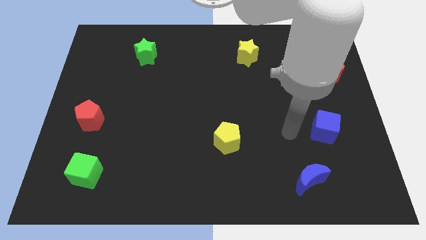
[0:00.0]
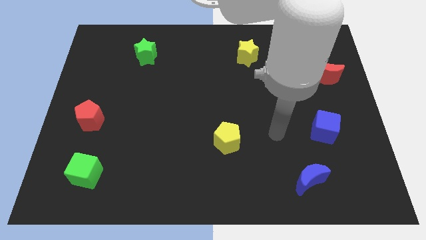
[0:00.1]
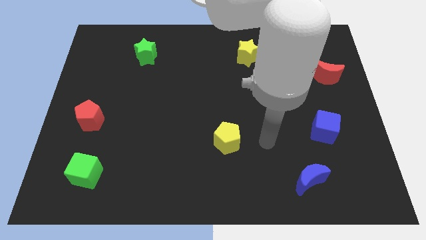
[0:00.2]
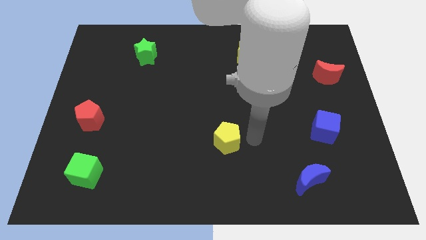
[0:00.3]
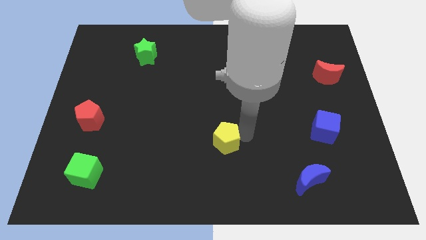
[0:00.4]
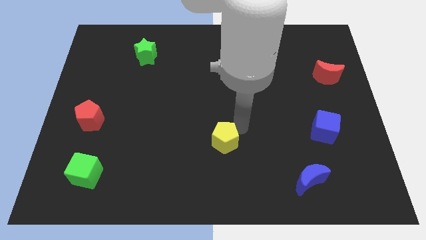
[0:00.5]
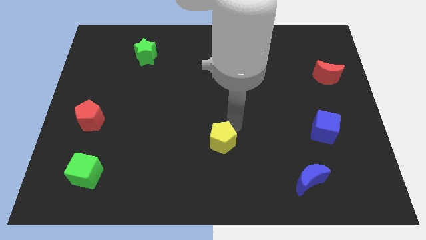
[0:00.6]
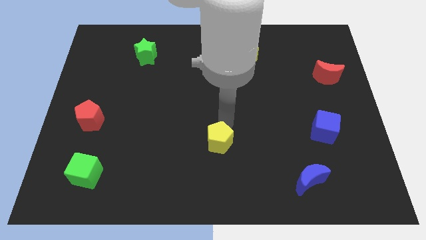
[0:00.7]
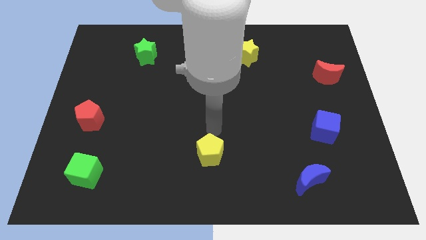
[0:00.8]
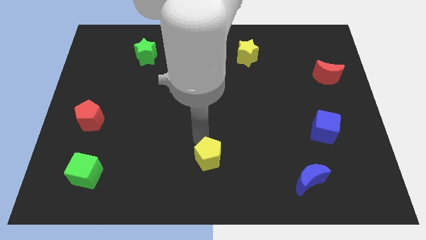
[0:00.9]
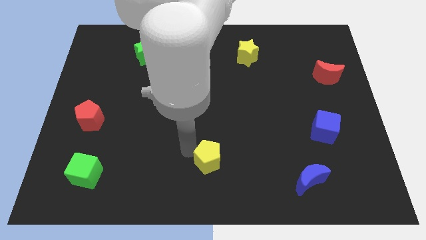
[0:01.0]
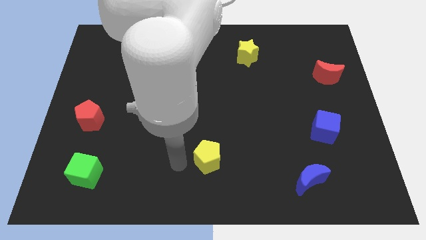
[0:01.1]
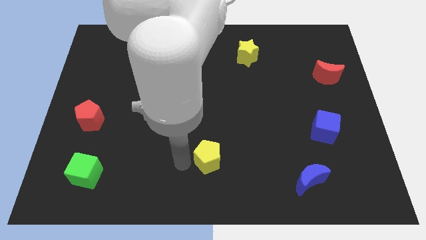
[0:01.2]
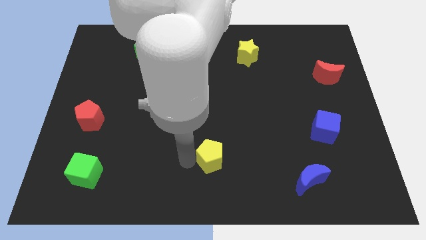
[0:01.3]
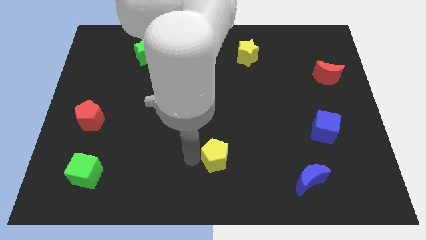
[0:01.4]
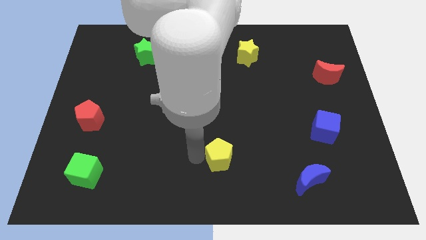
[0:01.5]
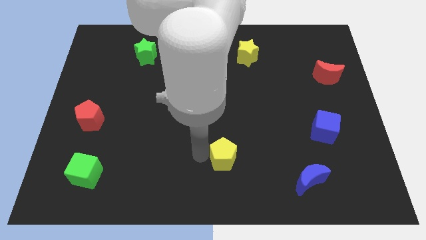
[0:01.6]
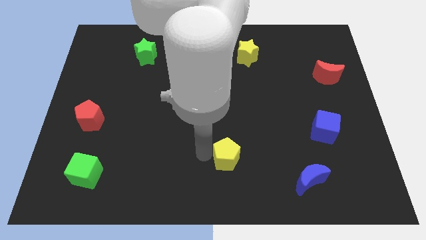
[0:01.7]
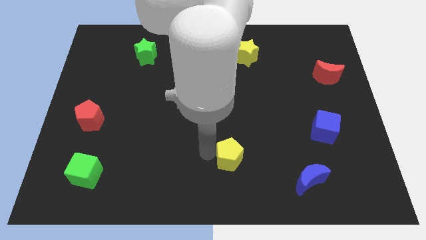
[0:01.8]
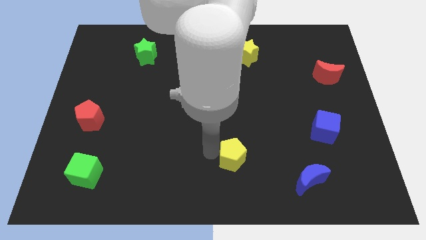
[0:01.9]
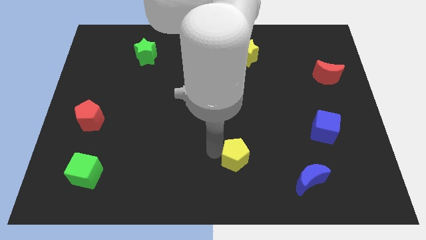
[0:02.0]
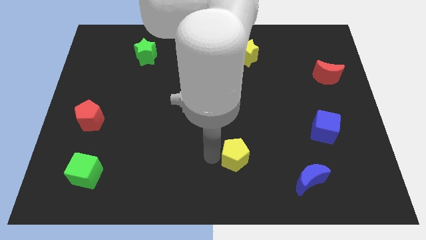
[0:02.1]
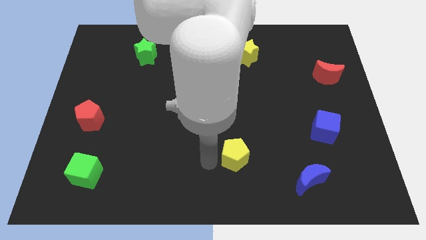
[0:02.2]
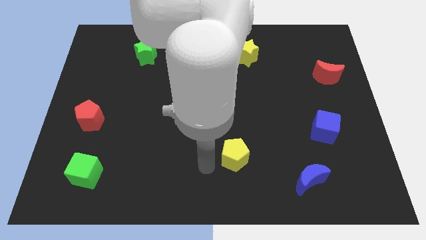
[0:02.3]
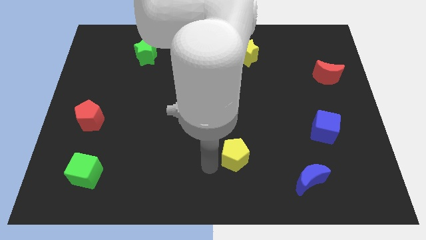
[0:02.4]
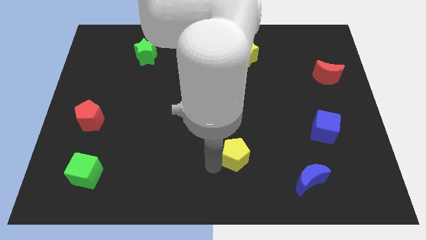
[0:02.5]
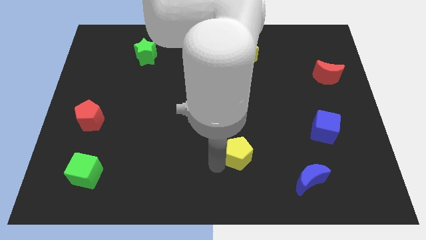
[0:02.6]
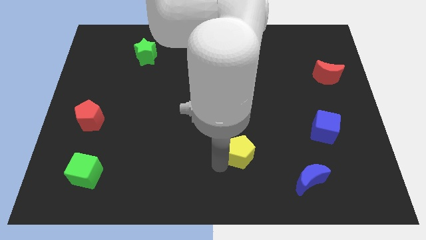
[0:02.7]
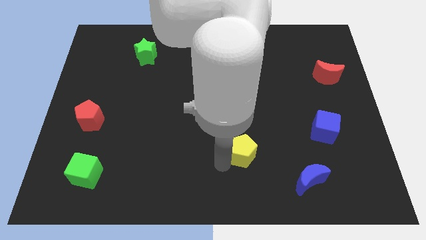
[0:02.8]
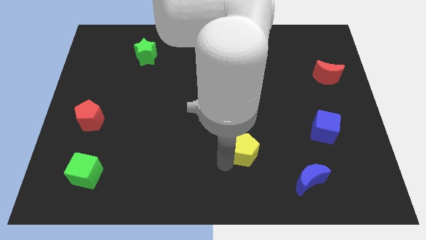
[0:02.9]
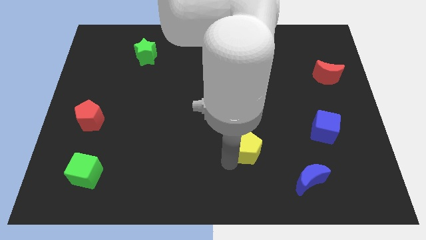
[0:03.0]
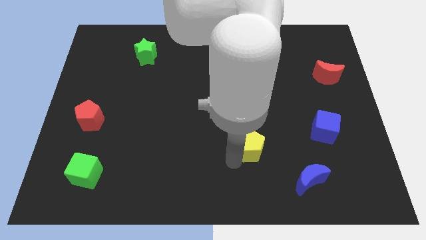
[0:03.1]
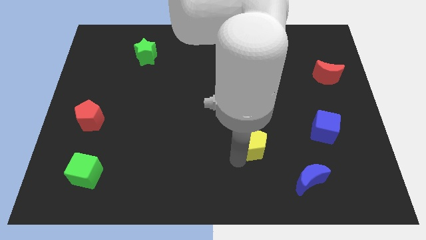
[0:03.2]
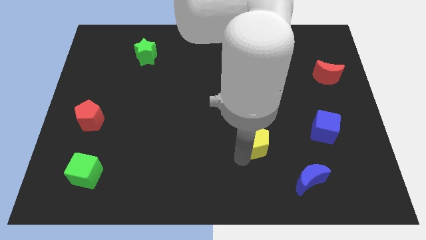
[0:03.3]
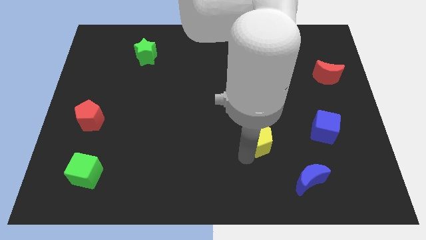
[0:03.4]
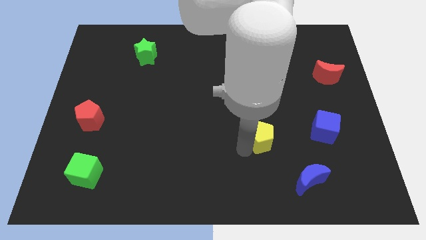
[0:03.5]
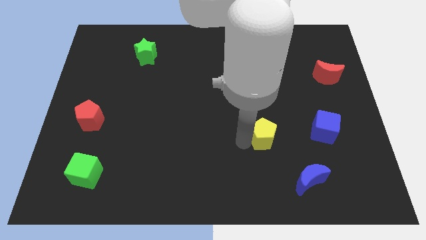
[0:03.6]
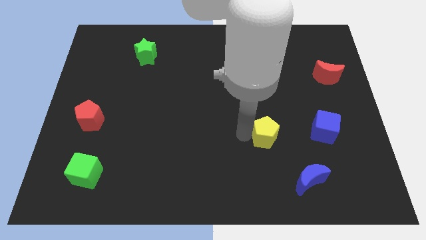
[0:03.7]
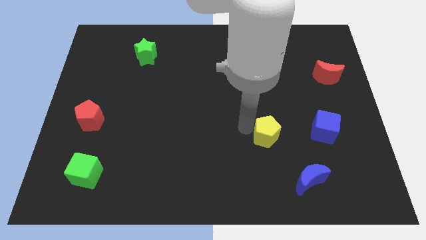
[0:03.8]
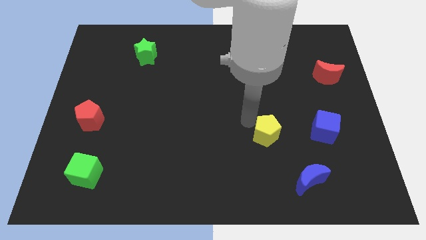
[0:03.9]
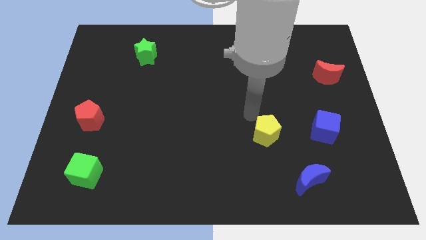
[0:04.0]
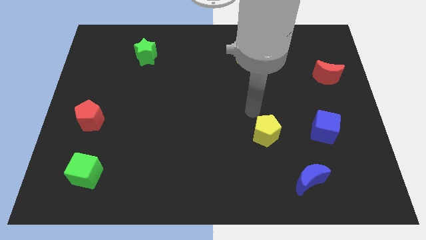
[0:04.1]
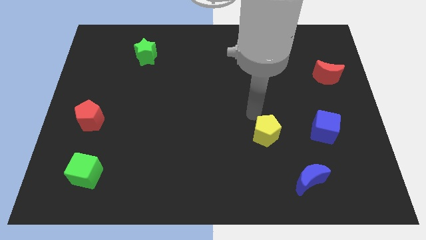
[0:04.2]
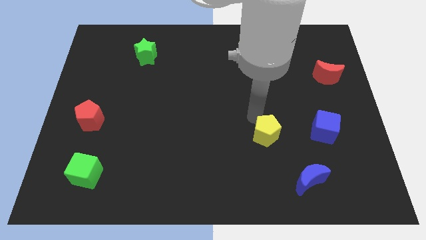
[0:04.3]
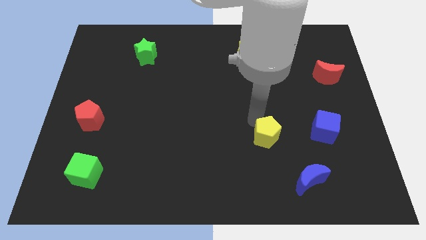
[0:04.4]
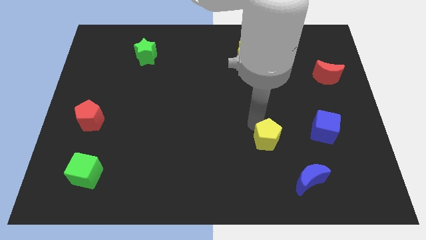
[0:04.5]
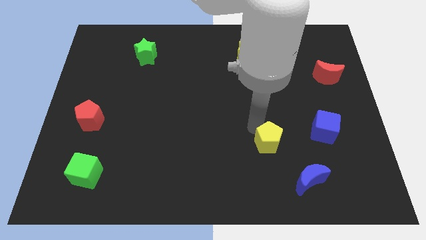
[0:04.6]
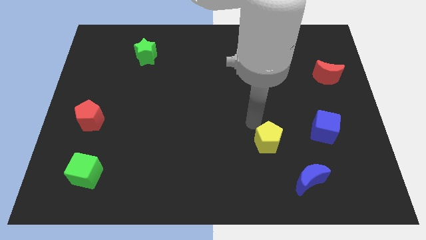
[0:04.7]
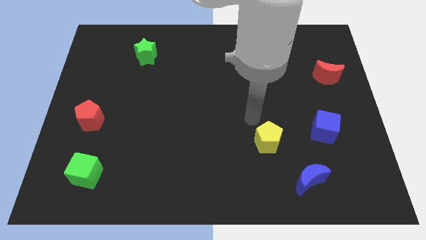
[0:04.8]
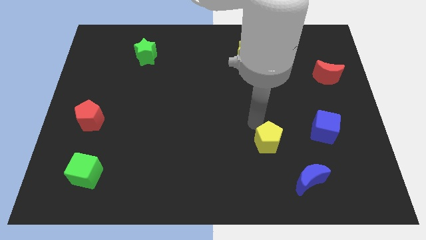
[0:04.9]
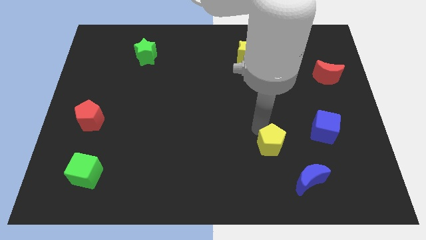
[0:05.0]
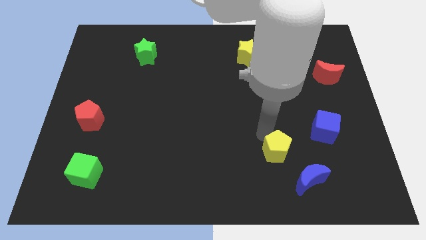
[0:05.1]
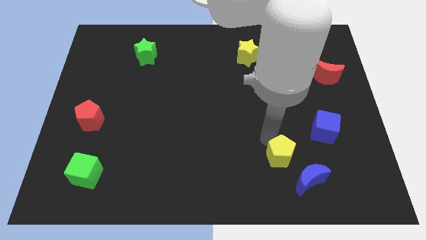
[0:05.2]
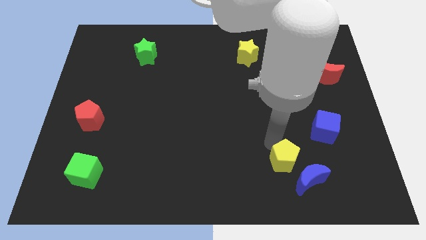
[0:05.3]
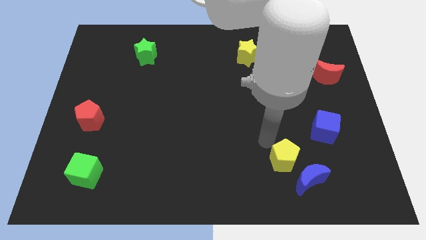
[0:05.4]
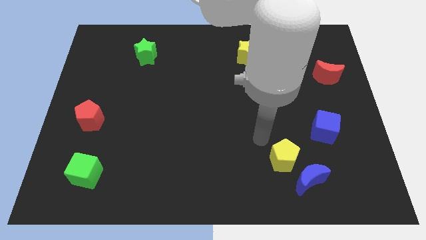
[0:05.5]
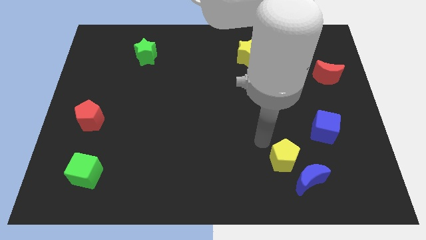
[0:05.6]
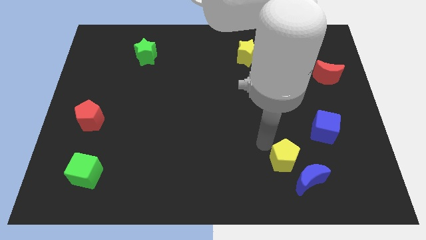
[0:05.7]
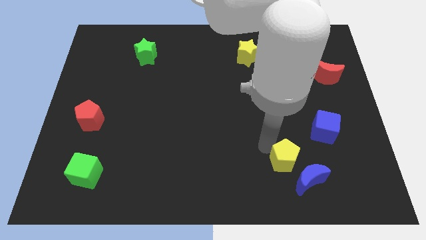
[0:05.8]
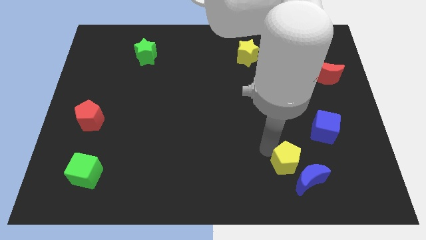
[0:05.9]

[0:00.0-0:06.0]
push the yellow pentagon close to the blue moon

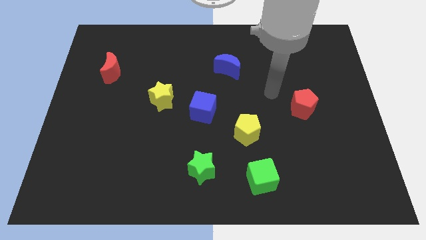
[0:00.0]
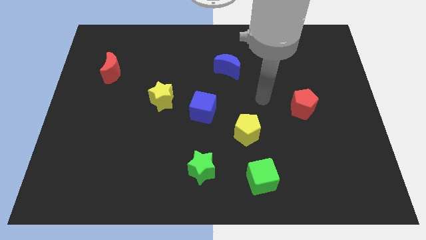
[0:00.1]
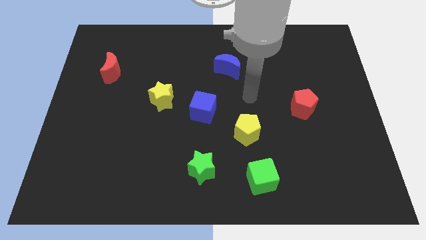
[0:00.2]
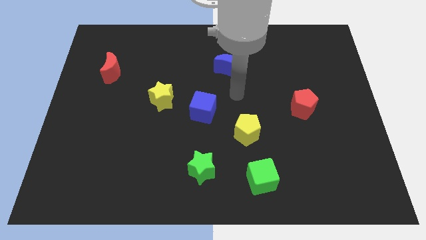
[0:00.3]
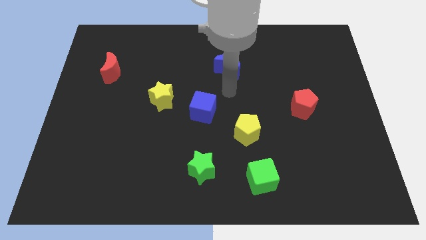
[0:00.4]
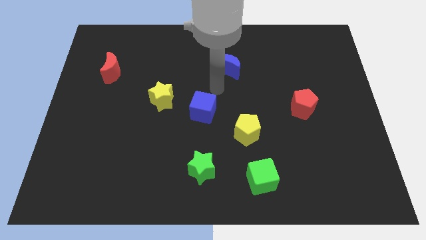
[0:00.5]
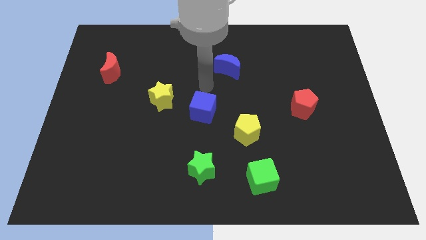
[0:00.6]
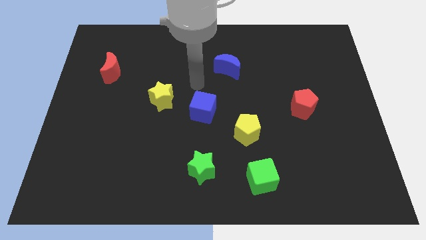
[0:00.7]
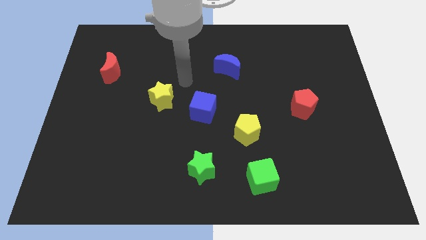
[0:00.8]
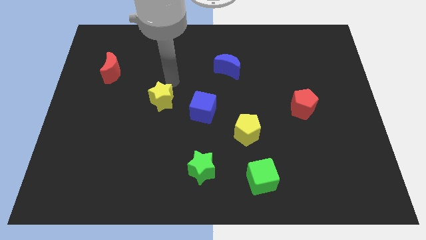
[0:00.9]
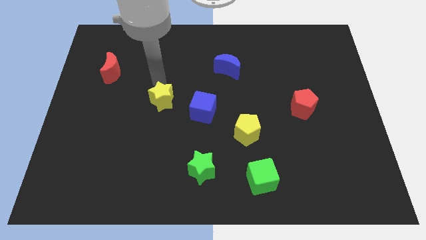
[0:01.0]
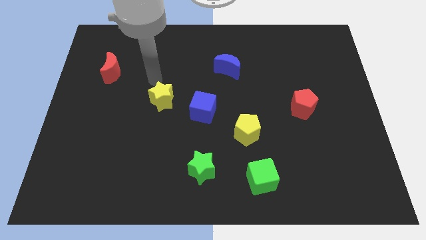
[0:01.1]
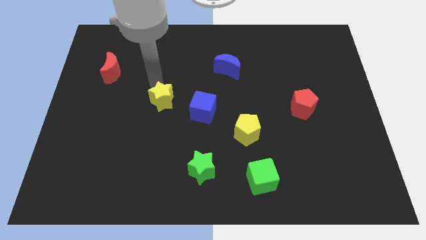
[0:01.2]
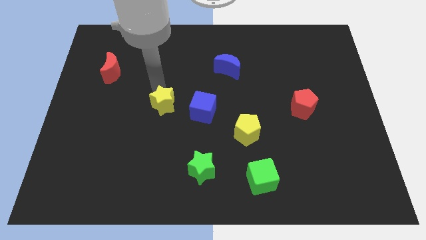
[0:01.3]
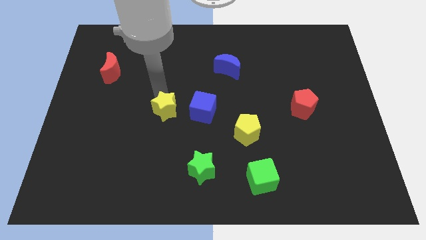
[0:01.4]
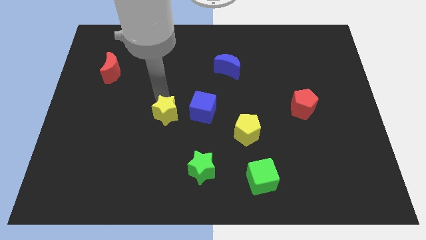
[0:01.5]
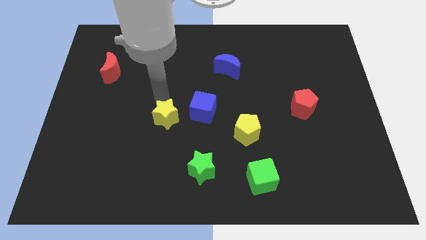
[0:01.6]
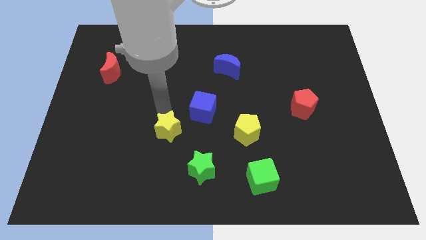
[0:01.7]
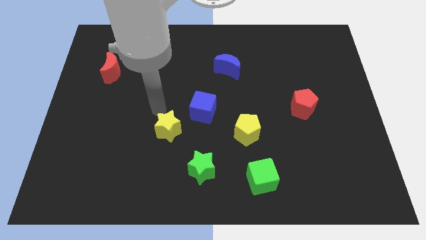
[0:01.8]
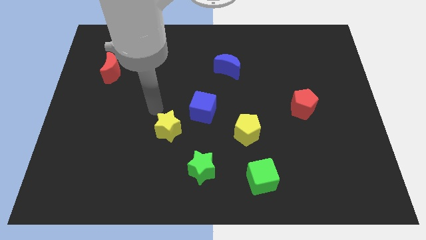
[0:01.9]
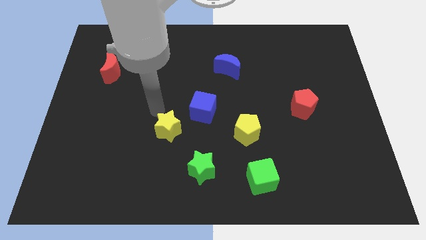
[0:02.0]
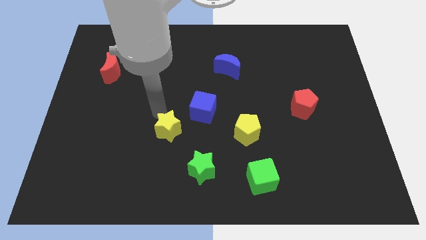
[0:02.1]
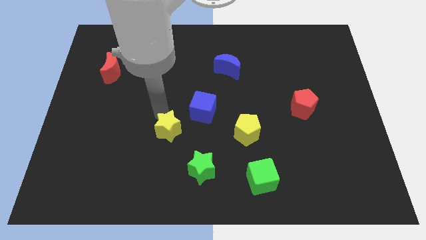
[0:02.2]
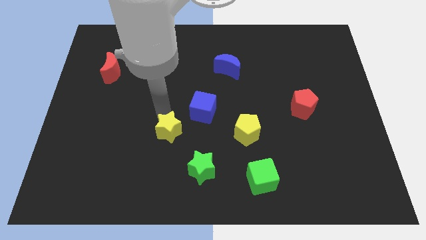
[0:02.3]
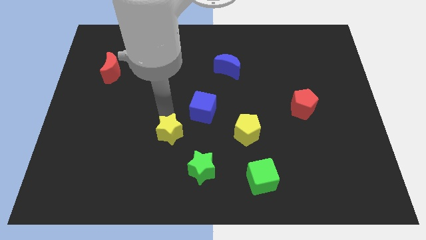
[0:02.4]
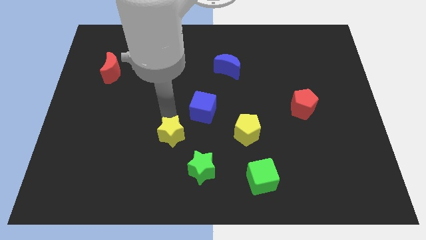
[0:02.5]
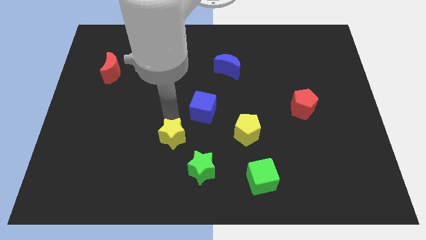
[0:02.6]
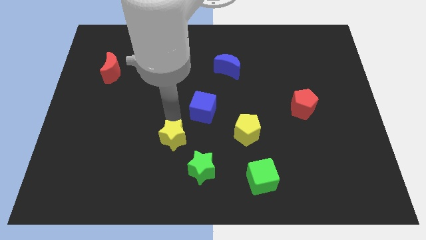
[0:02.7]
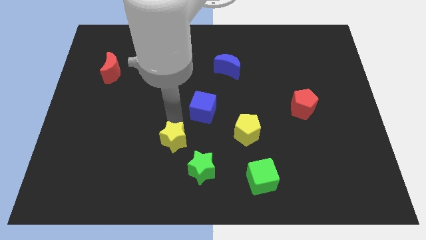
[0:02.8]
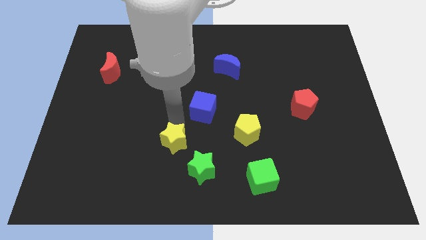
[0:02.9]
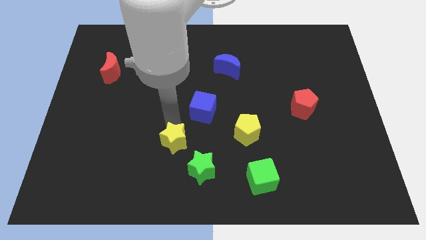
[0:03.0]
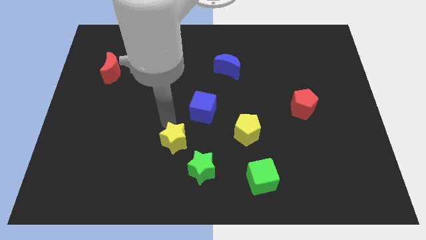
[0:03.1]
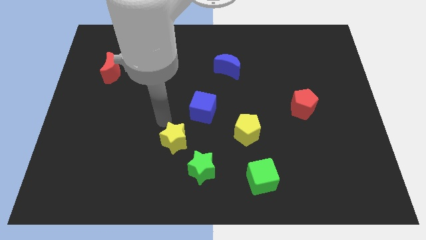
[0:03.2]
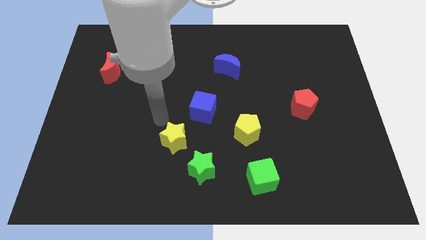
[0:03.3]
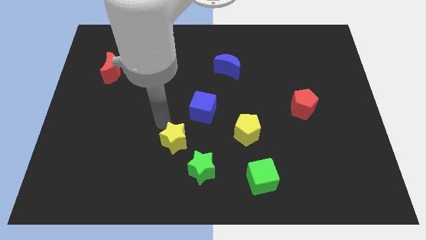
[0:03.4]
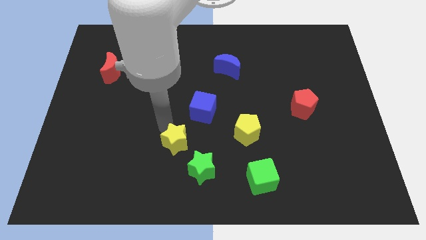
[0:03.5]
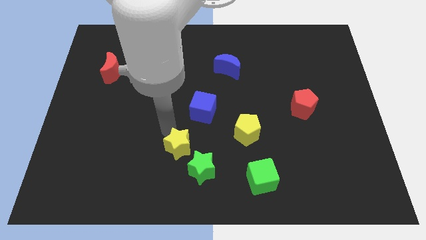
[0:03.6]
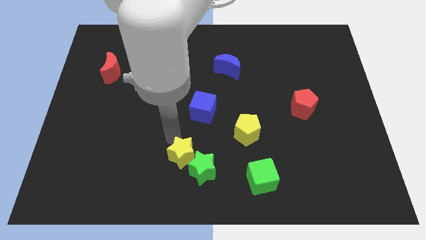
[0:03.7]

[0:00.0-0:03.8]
push the yellow star to the green star
